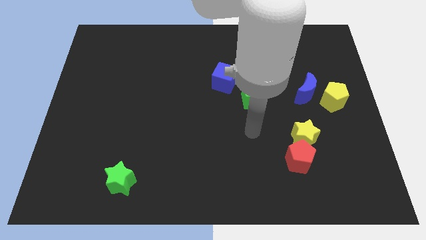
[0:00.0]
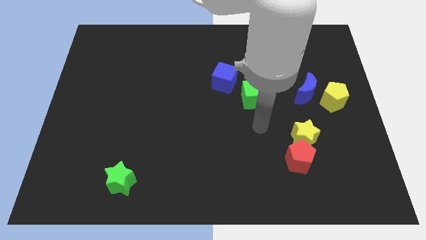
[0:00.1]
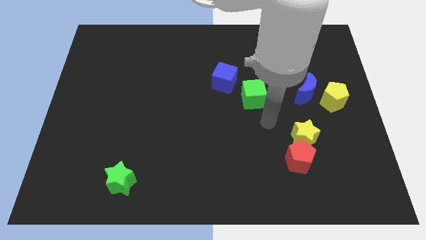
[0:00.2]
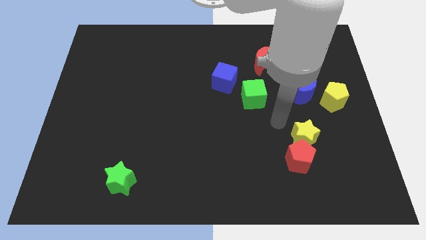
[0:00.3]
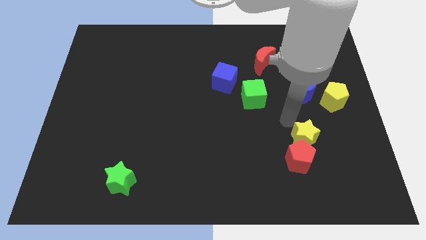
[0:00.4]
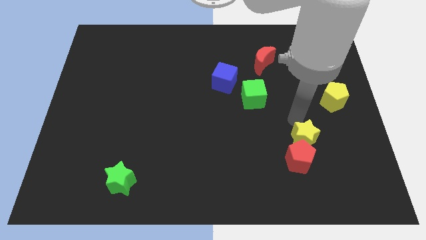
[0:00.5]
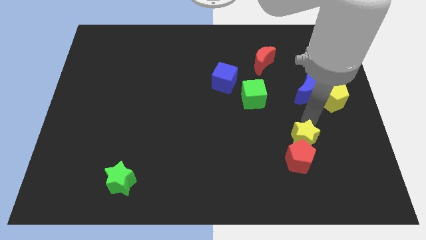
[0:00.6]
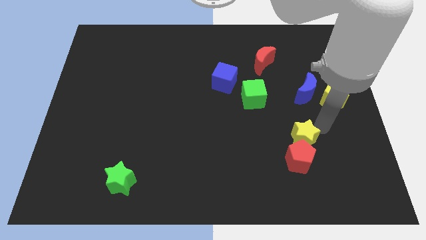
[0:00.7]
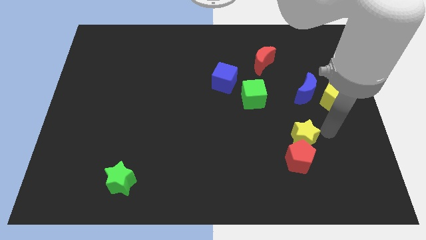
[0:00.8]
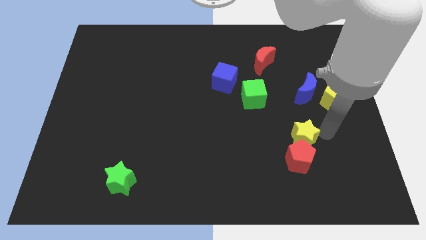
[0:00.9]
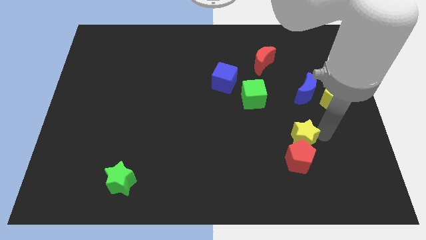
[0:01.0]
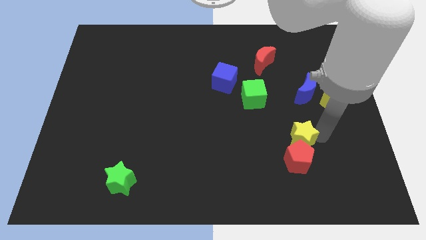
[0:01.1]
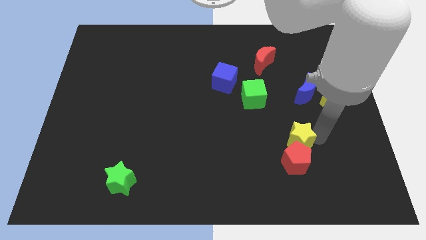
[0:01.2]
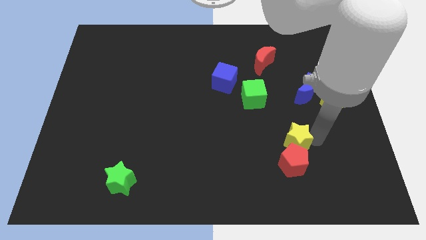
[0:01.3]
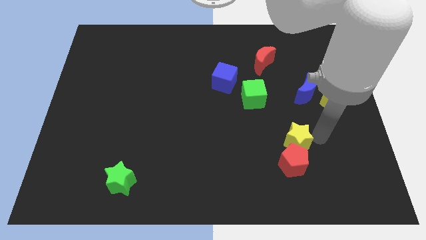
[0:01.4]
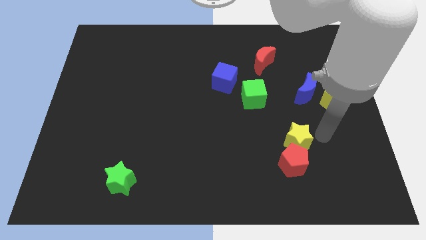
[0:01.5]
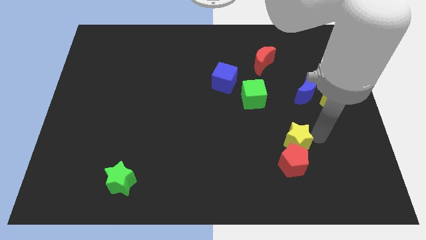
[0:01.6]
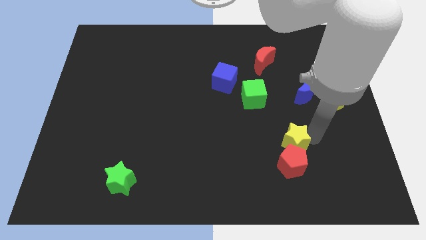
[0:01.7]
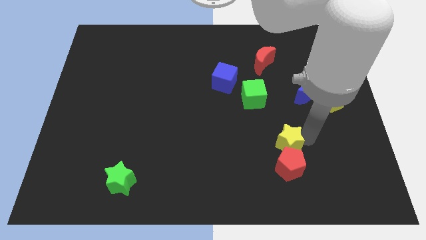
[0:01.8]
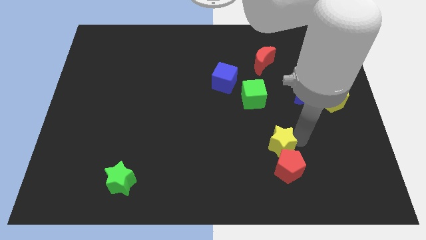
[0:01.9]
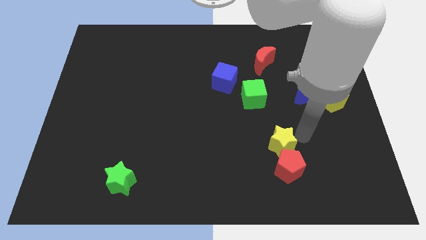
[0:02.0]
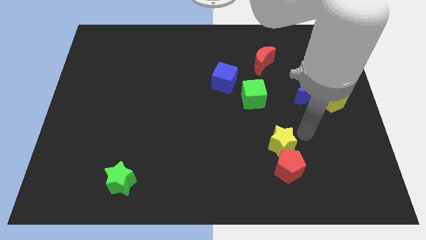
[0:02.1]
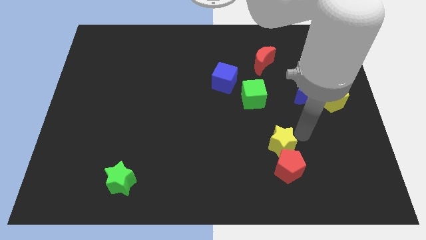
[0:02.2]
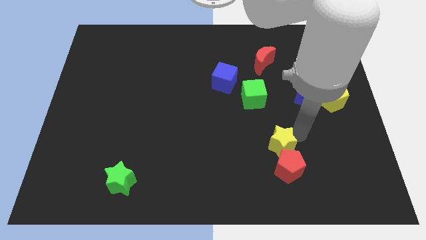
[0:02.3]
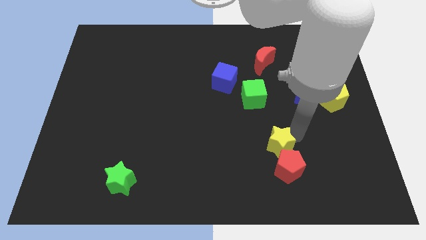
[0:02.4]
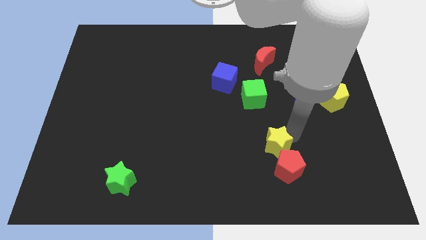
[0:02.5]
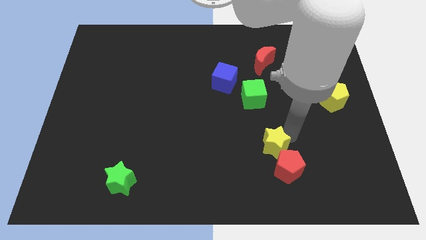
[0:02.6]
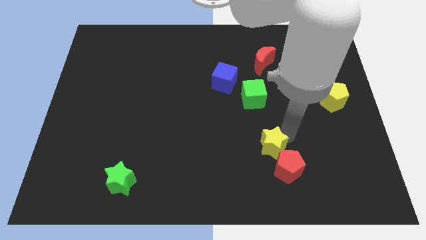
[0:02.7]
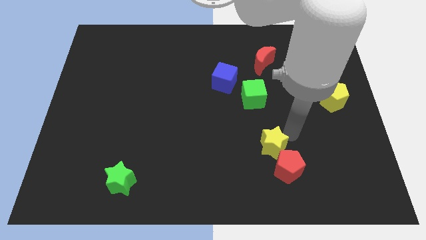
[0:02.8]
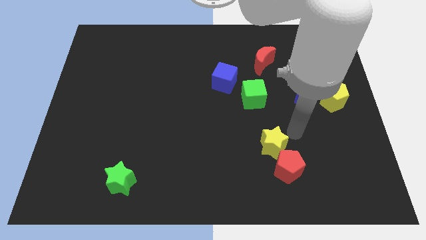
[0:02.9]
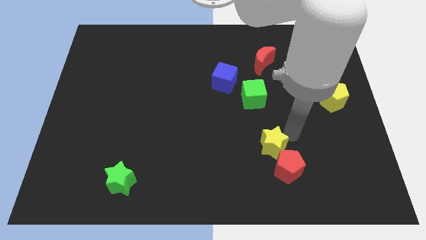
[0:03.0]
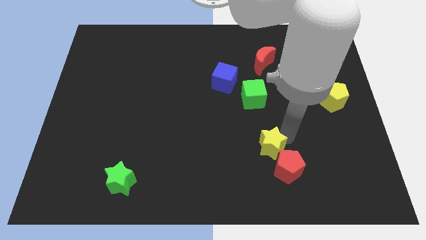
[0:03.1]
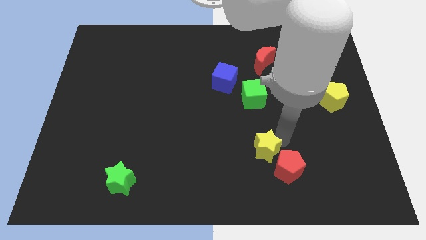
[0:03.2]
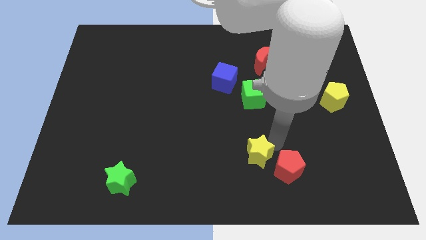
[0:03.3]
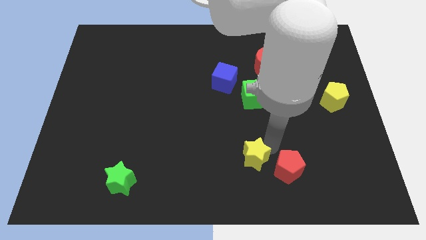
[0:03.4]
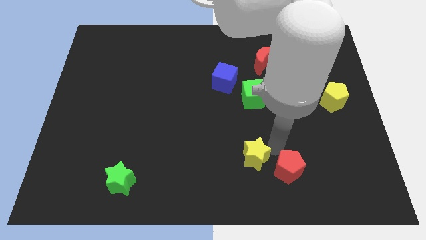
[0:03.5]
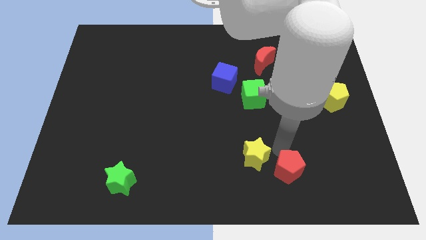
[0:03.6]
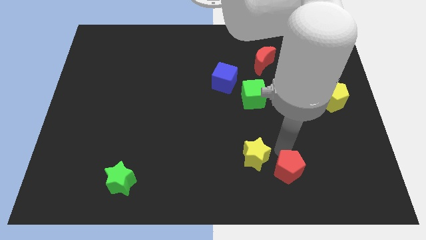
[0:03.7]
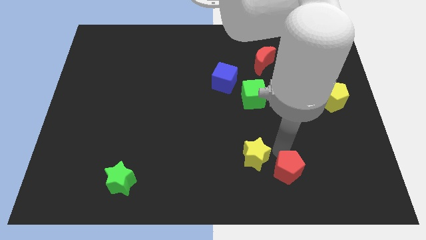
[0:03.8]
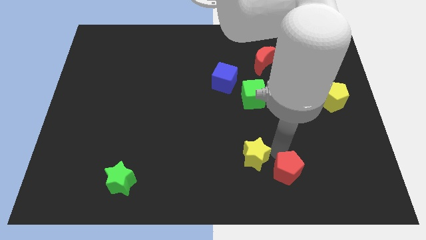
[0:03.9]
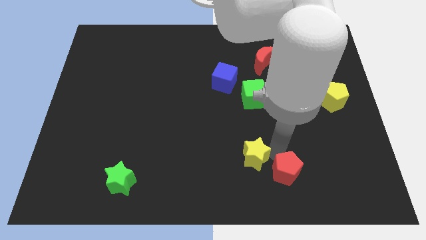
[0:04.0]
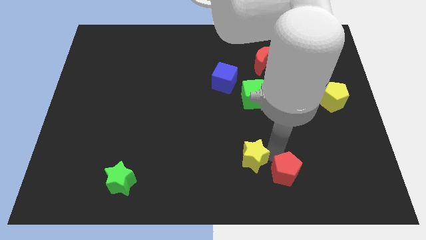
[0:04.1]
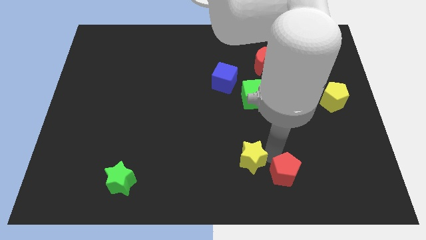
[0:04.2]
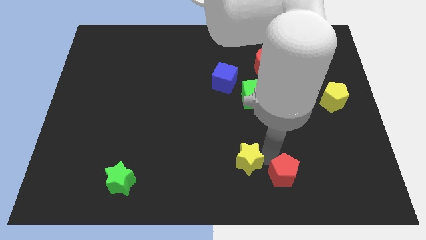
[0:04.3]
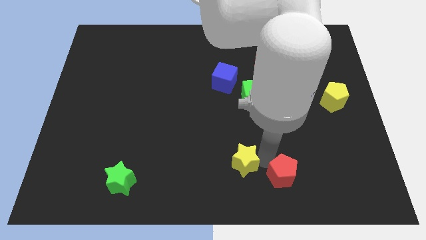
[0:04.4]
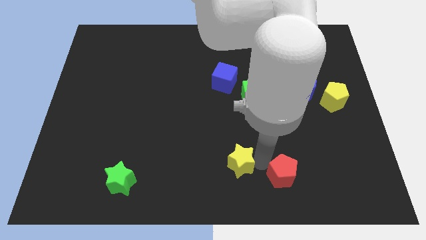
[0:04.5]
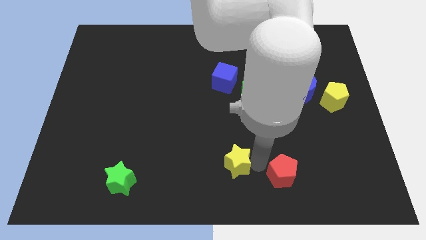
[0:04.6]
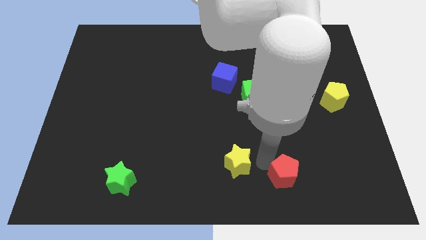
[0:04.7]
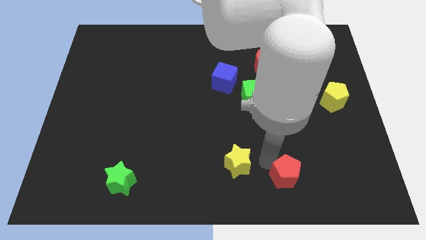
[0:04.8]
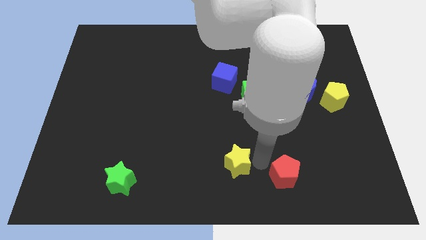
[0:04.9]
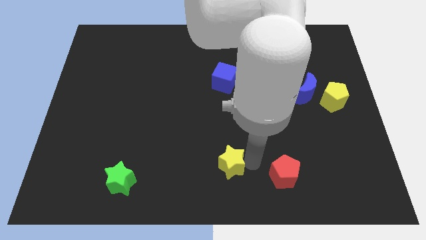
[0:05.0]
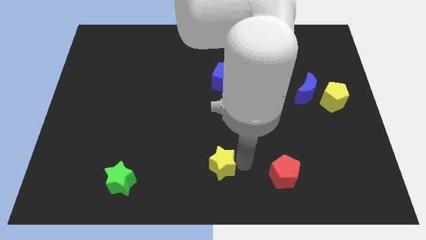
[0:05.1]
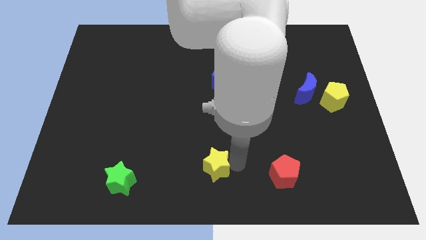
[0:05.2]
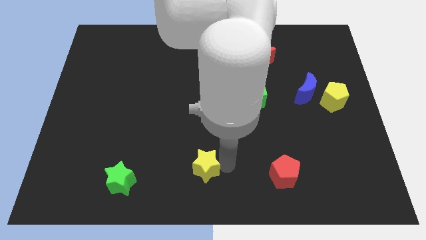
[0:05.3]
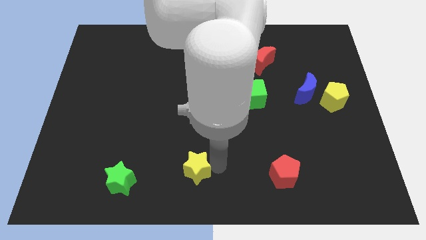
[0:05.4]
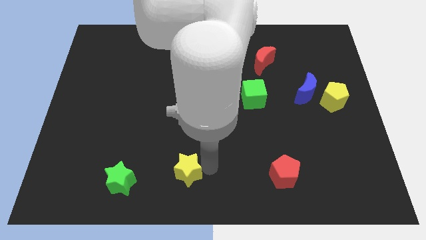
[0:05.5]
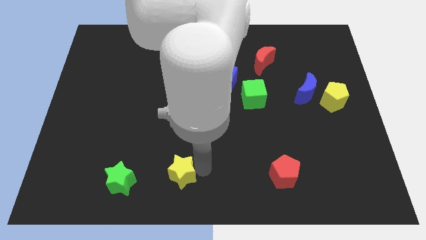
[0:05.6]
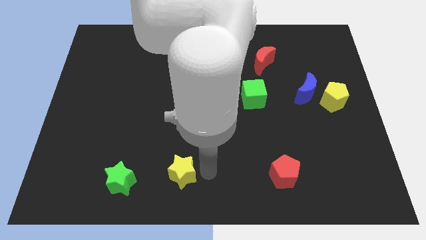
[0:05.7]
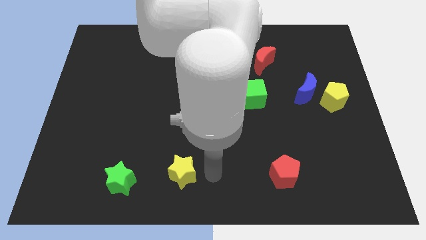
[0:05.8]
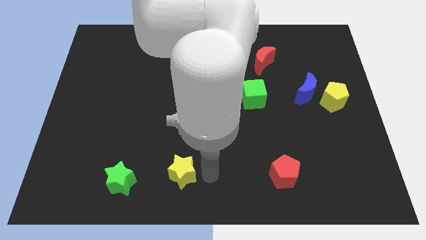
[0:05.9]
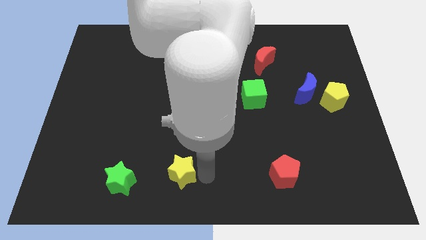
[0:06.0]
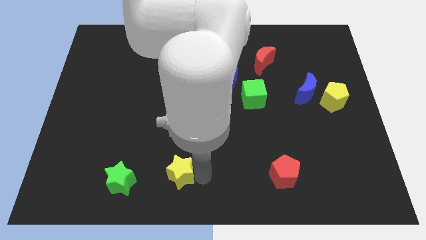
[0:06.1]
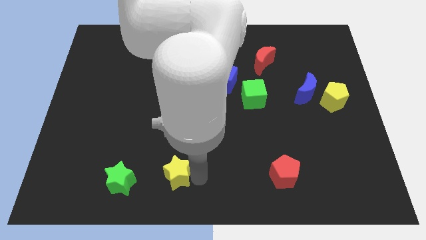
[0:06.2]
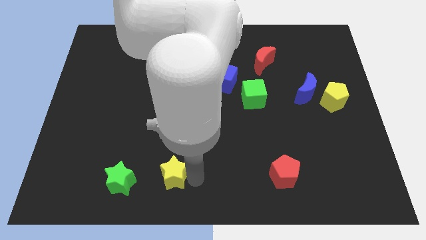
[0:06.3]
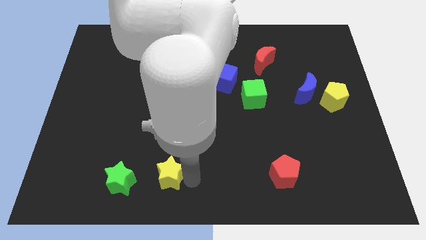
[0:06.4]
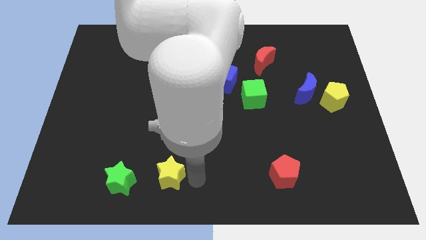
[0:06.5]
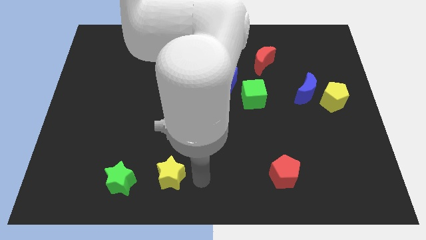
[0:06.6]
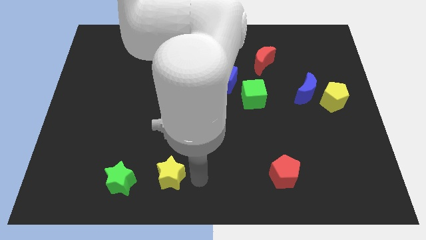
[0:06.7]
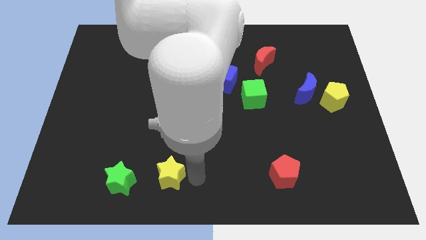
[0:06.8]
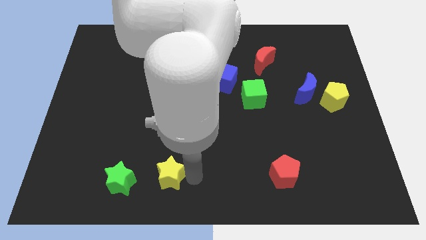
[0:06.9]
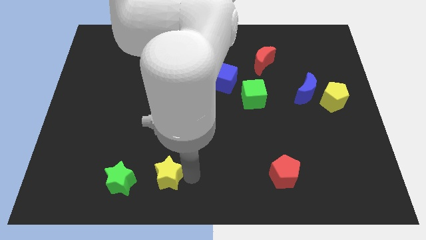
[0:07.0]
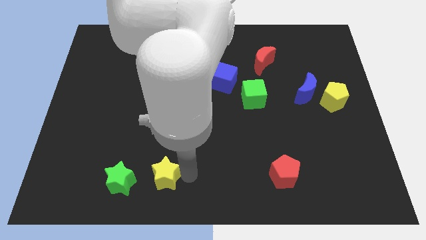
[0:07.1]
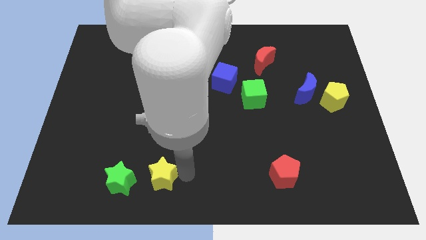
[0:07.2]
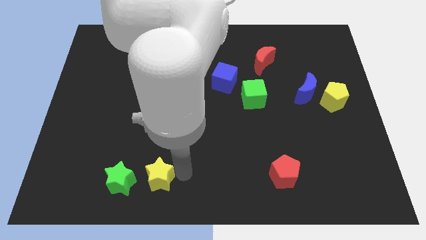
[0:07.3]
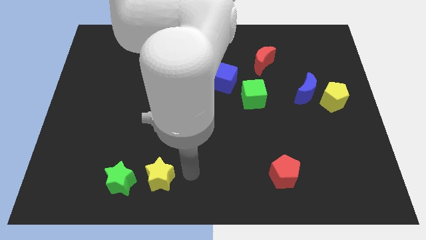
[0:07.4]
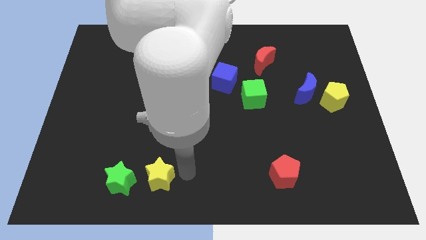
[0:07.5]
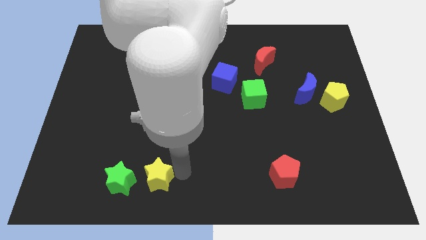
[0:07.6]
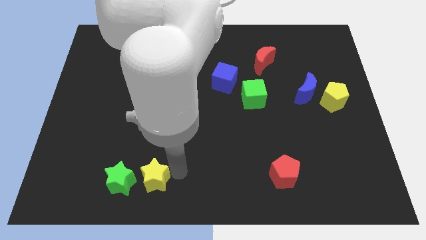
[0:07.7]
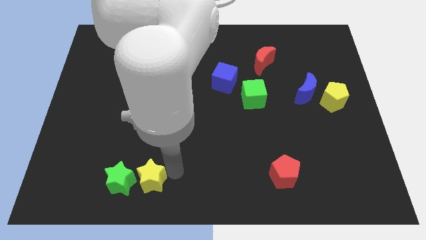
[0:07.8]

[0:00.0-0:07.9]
slide the yellow star close to the green star

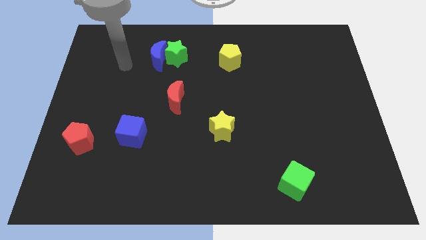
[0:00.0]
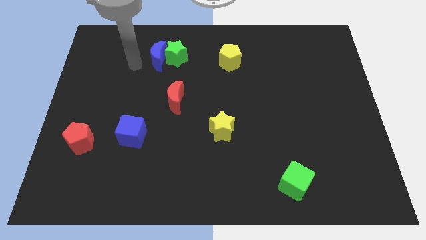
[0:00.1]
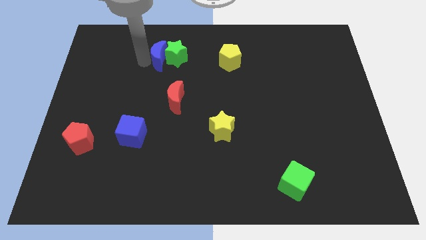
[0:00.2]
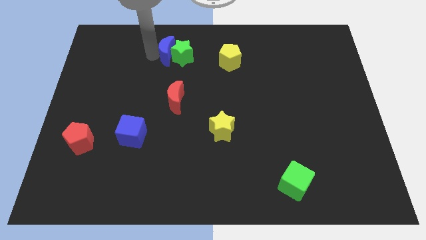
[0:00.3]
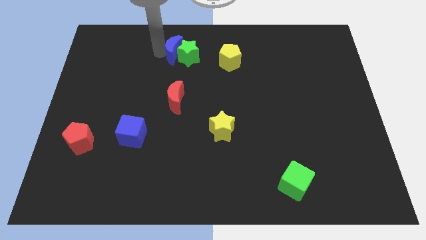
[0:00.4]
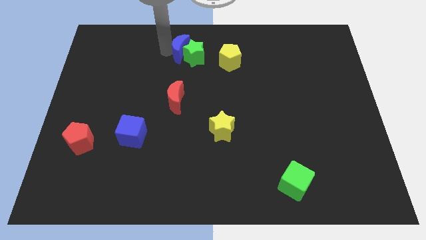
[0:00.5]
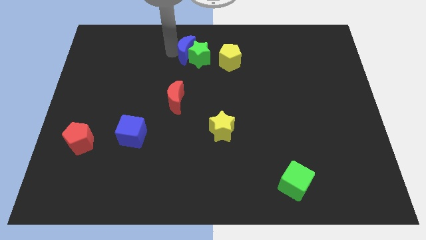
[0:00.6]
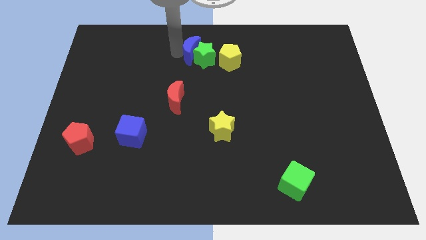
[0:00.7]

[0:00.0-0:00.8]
push the green star close to the yellow pentagon
